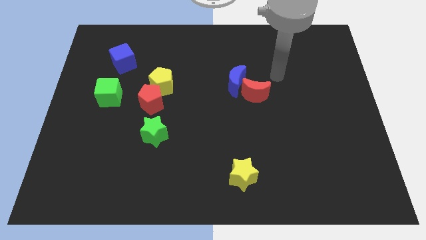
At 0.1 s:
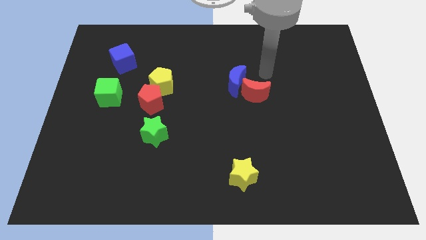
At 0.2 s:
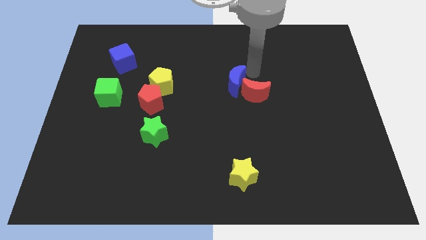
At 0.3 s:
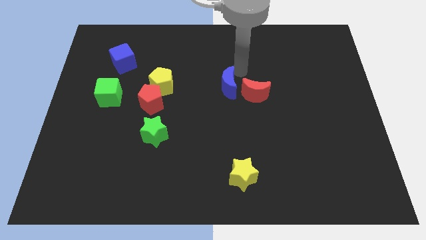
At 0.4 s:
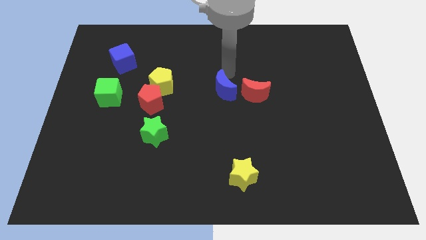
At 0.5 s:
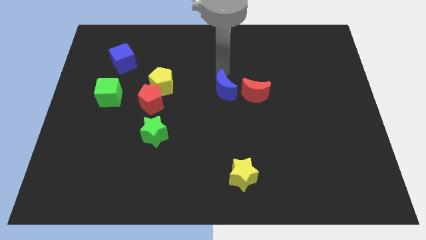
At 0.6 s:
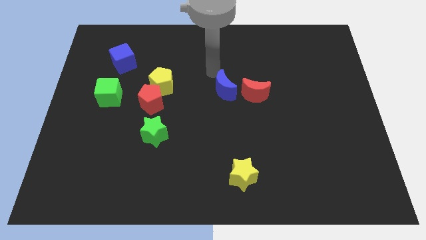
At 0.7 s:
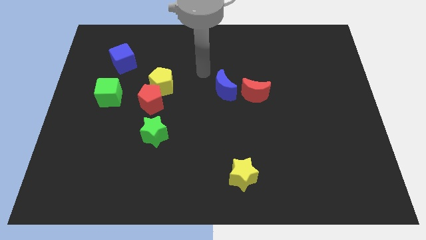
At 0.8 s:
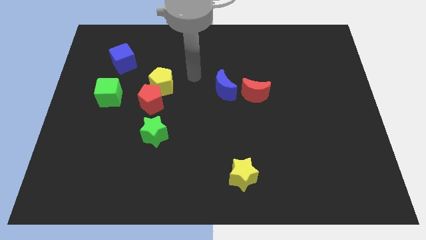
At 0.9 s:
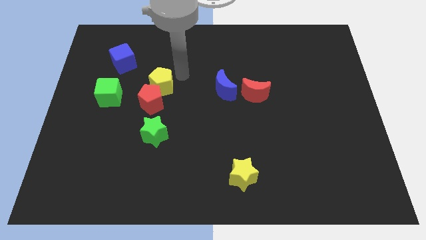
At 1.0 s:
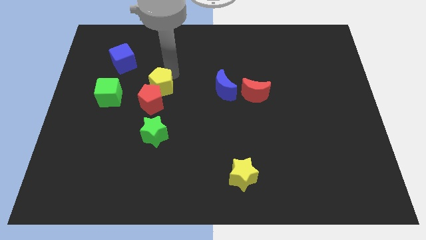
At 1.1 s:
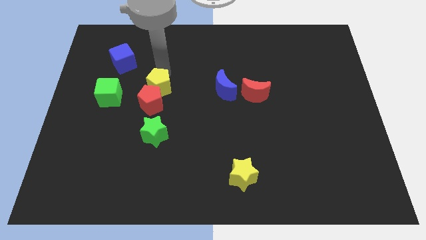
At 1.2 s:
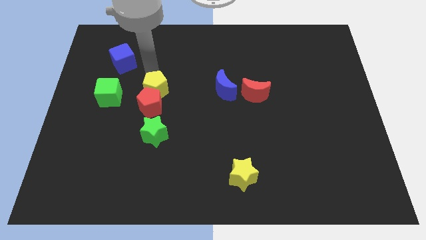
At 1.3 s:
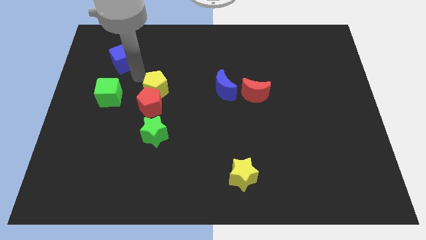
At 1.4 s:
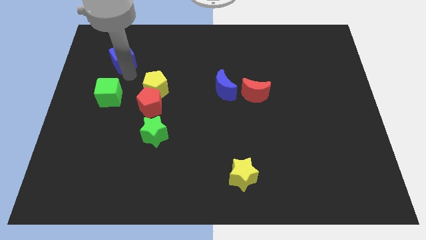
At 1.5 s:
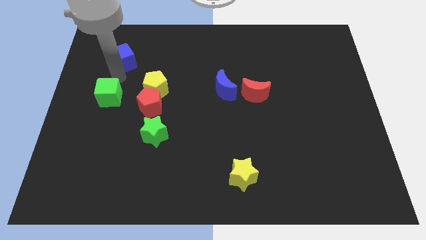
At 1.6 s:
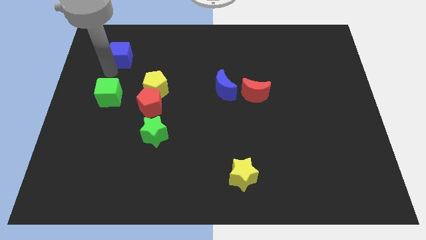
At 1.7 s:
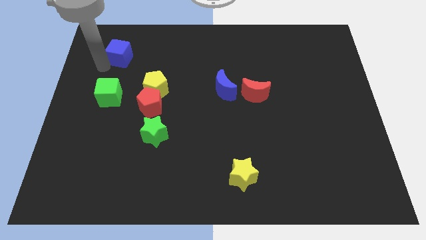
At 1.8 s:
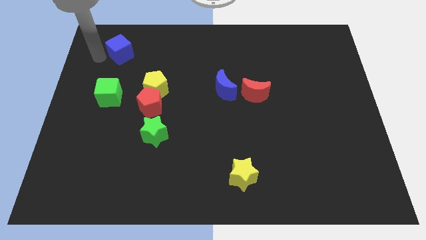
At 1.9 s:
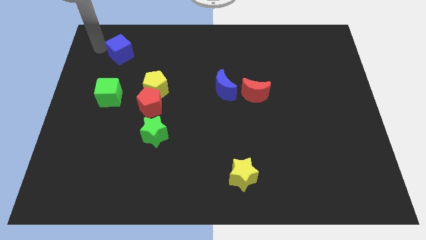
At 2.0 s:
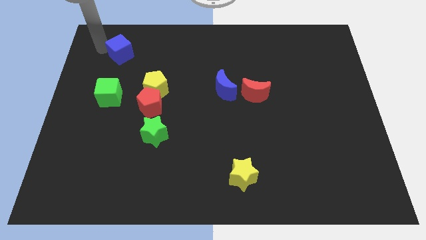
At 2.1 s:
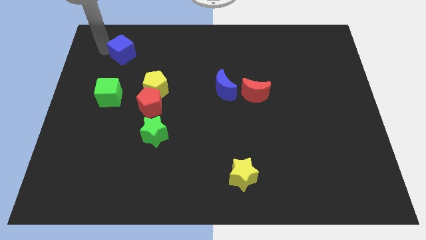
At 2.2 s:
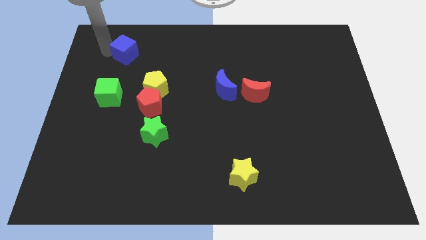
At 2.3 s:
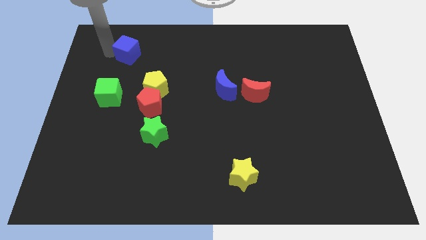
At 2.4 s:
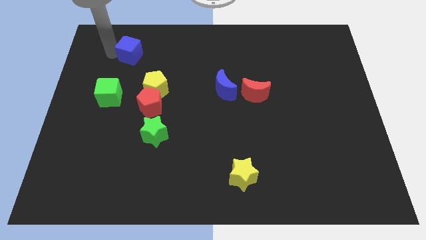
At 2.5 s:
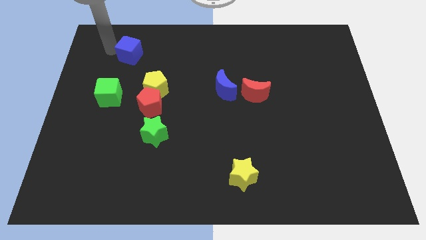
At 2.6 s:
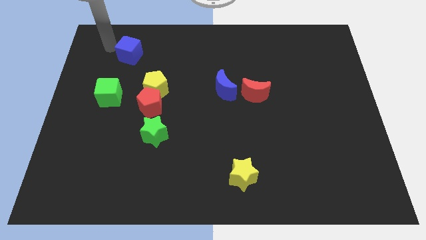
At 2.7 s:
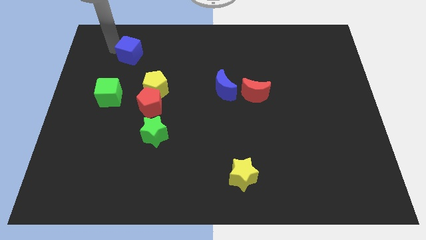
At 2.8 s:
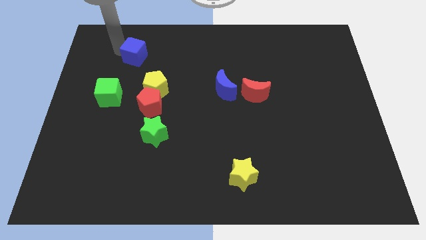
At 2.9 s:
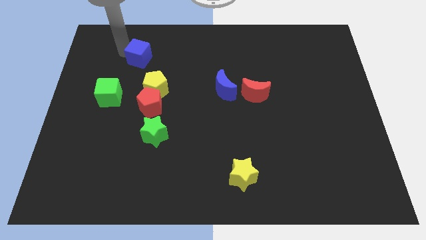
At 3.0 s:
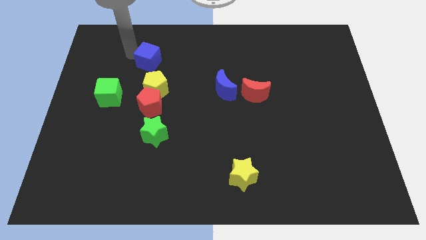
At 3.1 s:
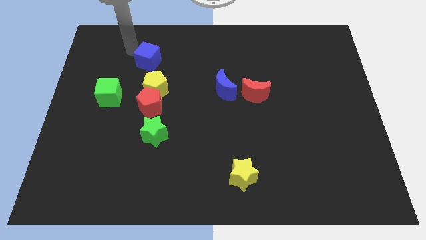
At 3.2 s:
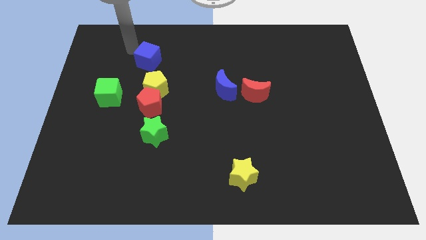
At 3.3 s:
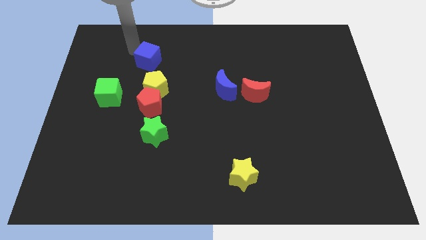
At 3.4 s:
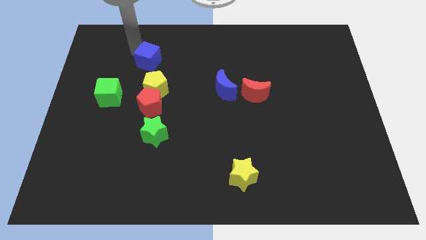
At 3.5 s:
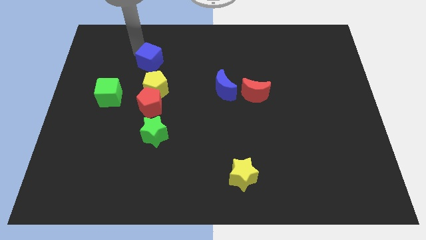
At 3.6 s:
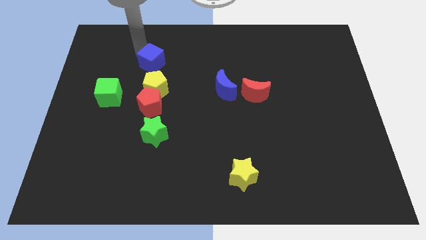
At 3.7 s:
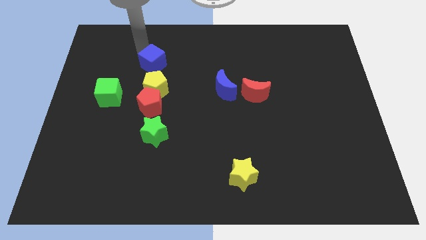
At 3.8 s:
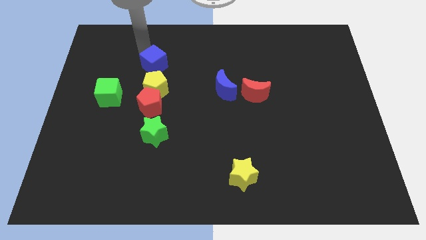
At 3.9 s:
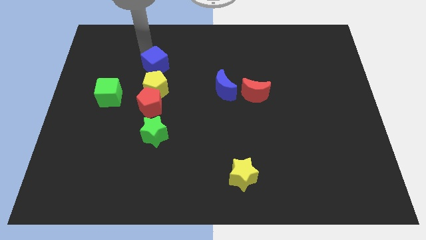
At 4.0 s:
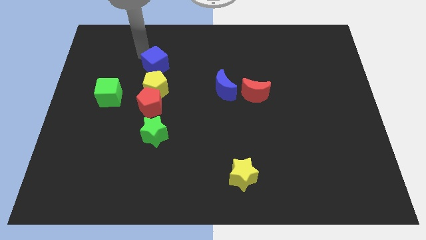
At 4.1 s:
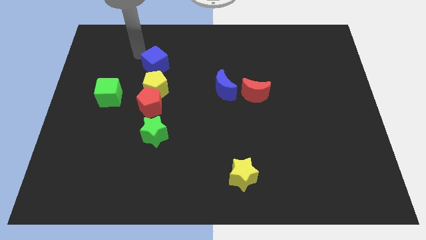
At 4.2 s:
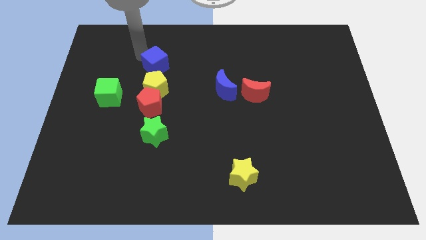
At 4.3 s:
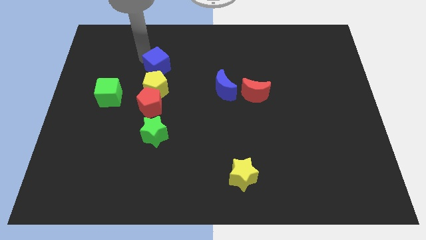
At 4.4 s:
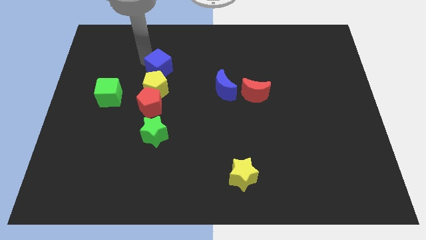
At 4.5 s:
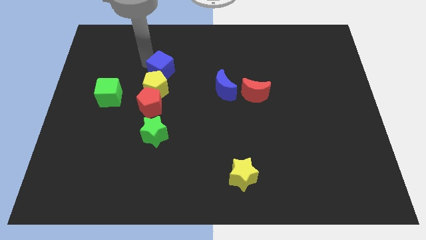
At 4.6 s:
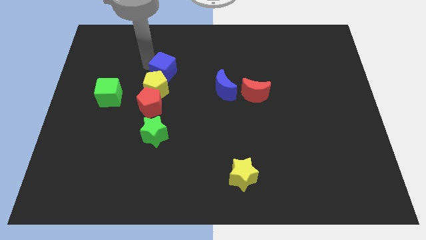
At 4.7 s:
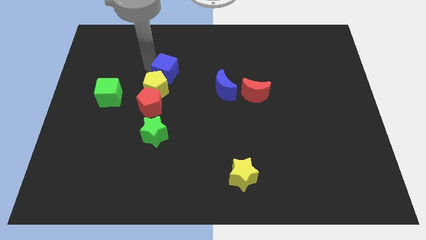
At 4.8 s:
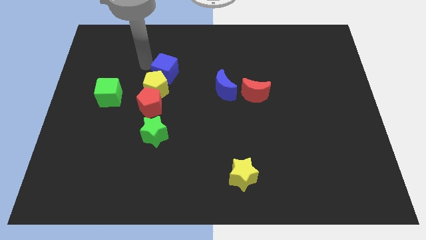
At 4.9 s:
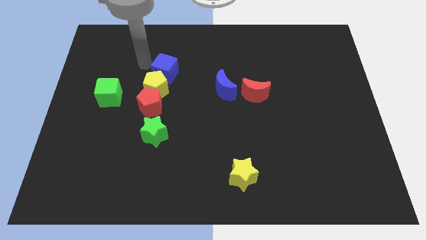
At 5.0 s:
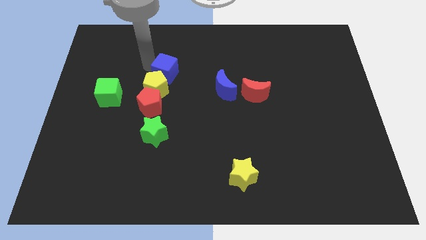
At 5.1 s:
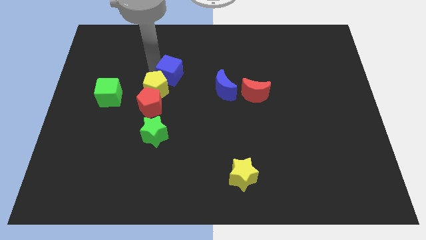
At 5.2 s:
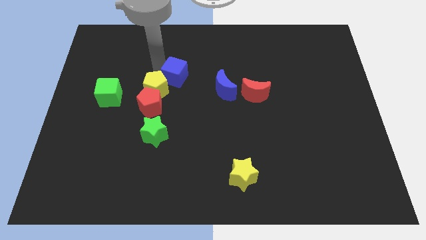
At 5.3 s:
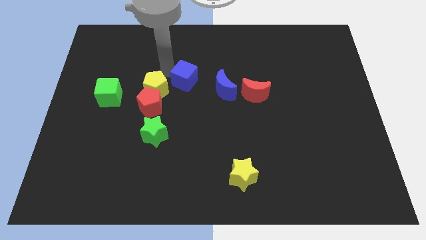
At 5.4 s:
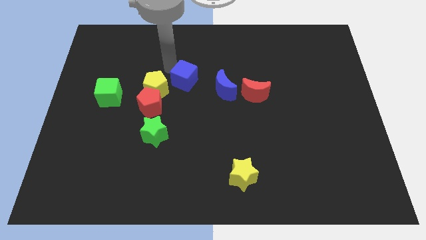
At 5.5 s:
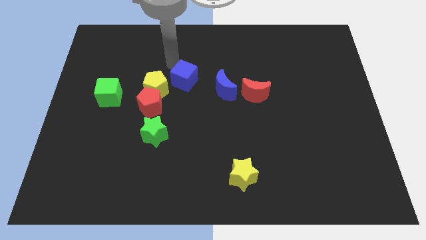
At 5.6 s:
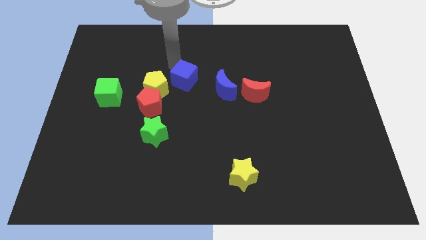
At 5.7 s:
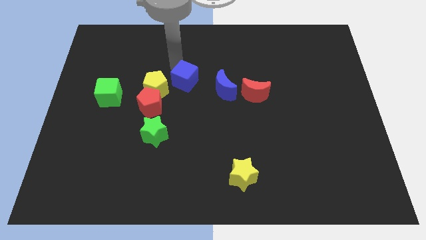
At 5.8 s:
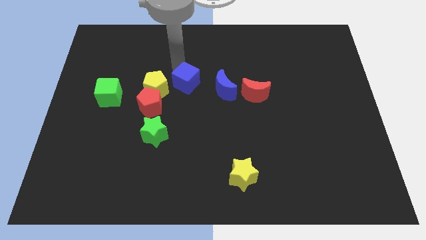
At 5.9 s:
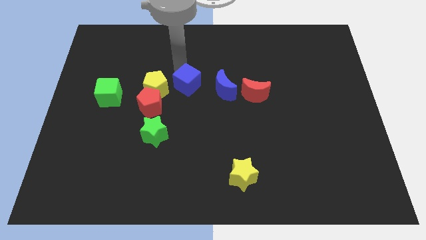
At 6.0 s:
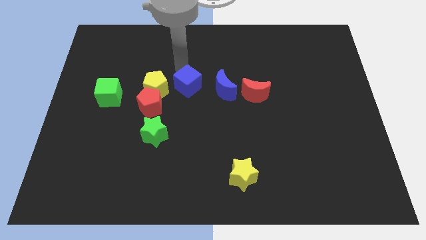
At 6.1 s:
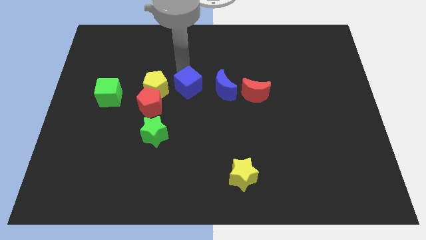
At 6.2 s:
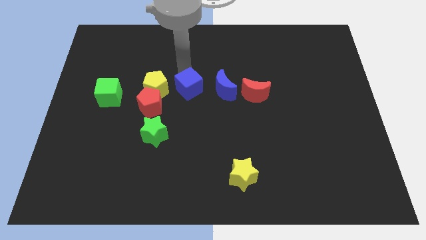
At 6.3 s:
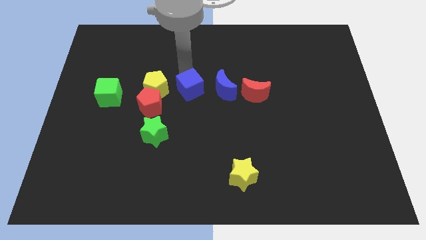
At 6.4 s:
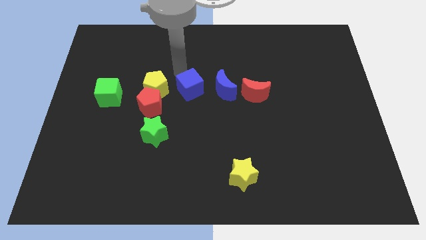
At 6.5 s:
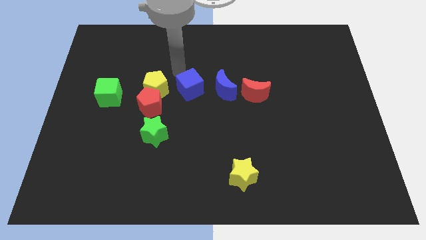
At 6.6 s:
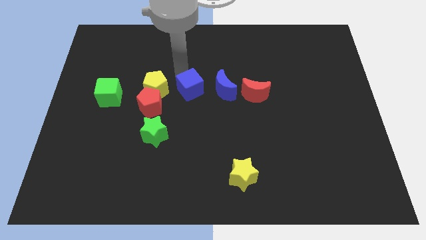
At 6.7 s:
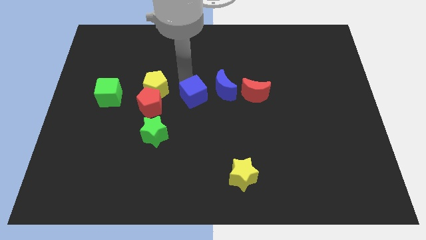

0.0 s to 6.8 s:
move the blue cube downwards and right

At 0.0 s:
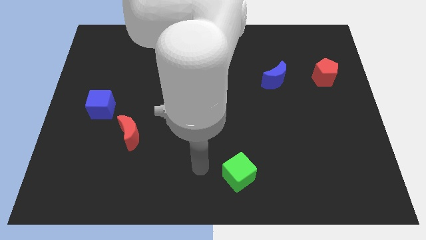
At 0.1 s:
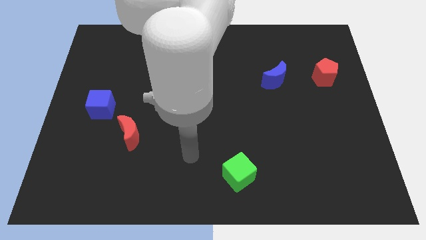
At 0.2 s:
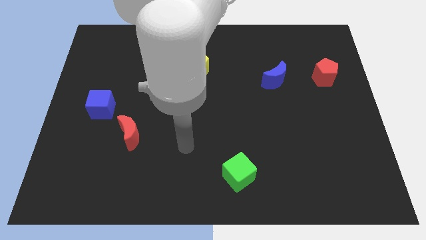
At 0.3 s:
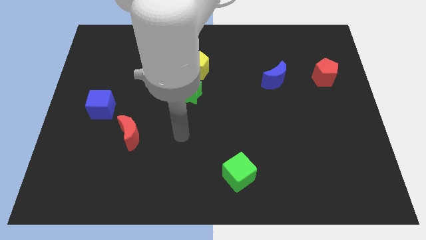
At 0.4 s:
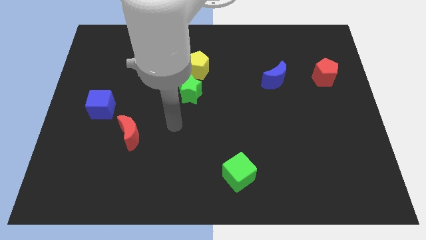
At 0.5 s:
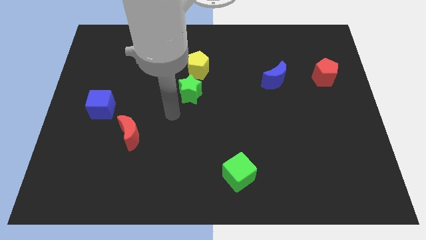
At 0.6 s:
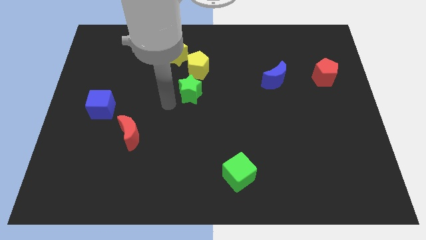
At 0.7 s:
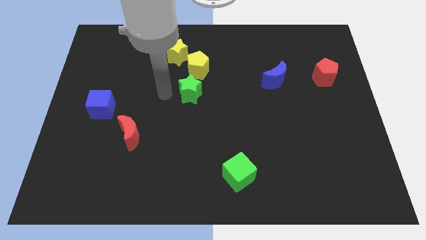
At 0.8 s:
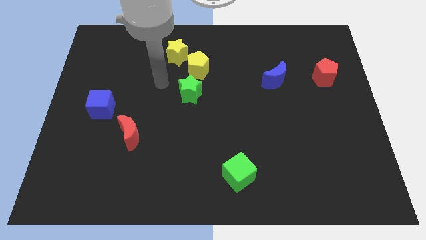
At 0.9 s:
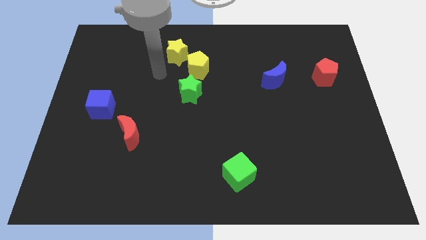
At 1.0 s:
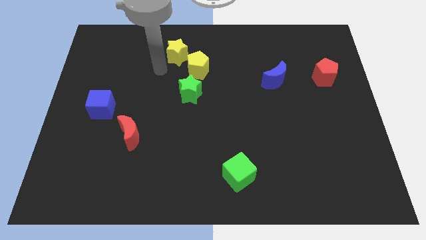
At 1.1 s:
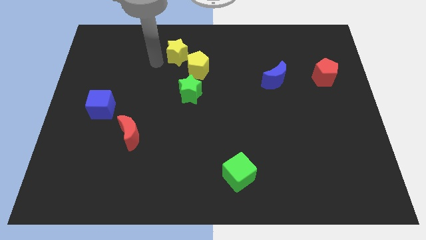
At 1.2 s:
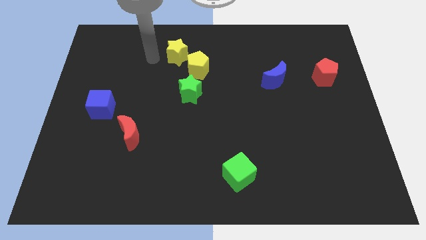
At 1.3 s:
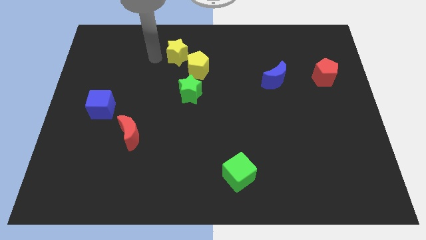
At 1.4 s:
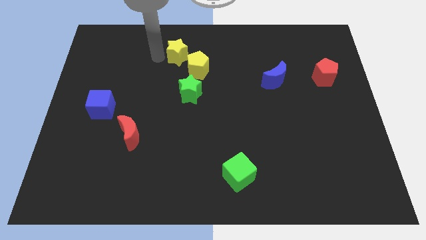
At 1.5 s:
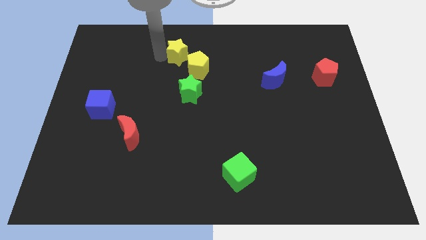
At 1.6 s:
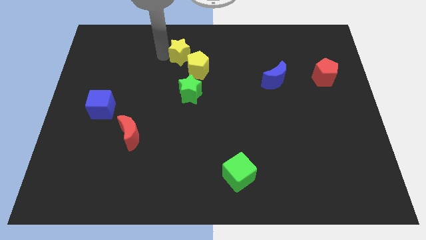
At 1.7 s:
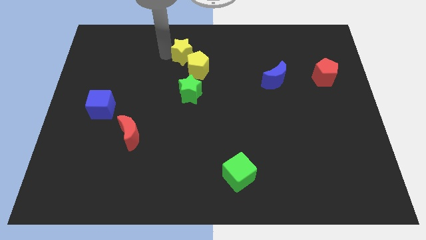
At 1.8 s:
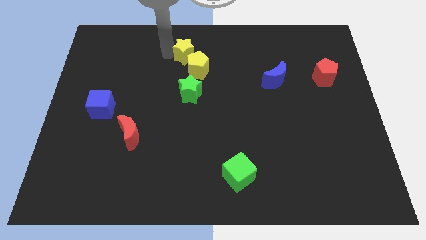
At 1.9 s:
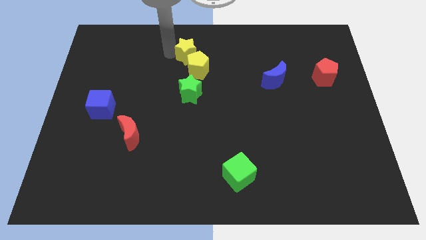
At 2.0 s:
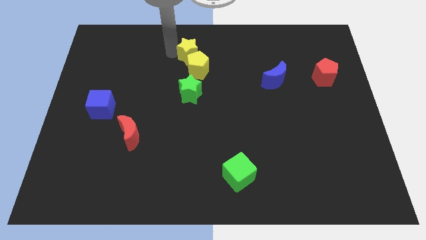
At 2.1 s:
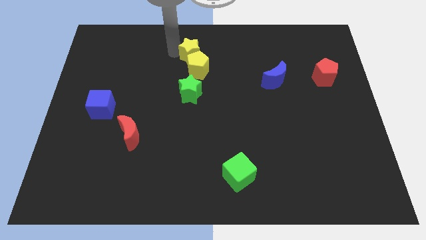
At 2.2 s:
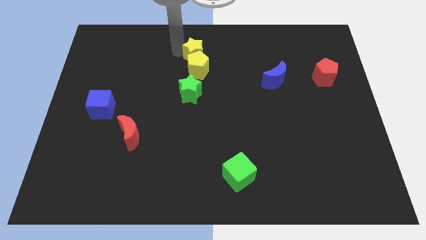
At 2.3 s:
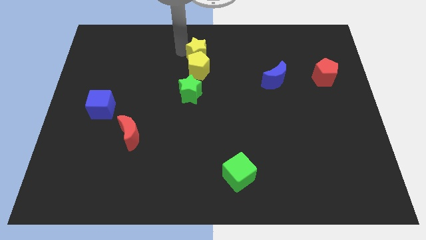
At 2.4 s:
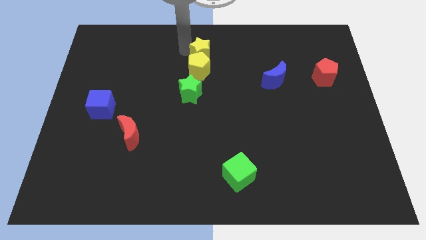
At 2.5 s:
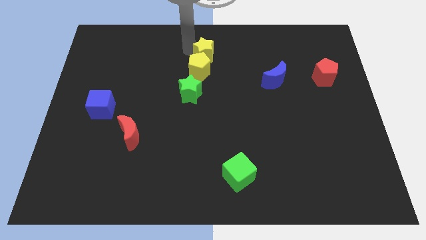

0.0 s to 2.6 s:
slightly move the yellow star right
